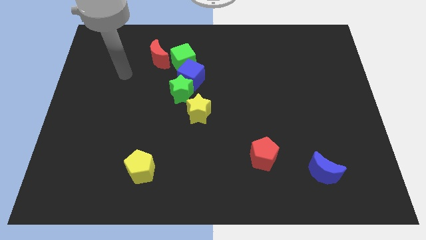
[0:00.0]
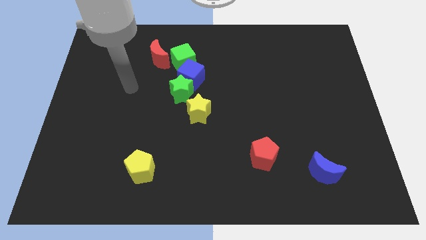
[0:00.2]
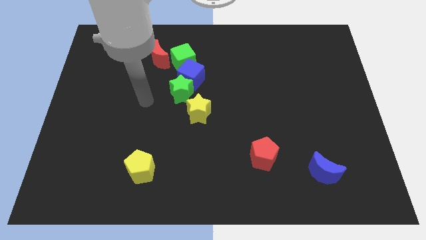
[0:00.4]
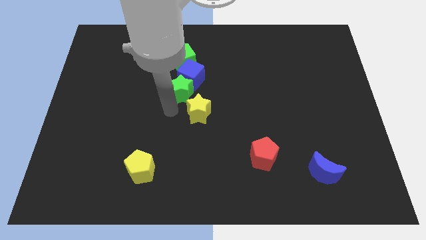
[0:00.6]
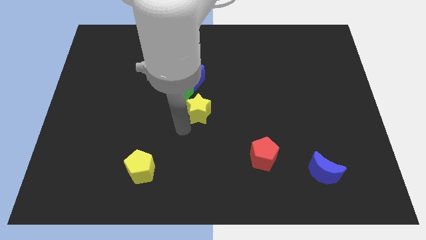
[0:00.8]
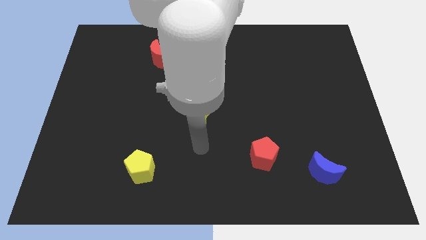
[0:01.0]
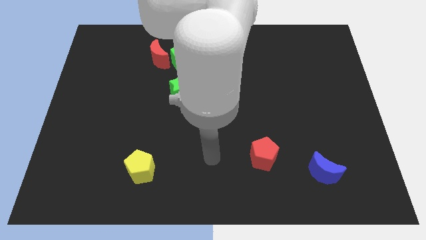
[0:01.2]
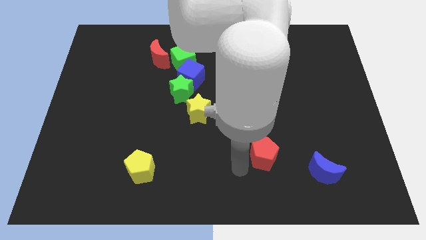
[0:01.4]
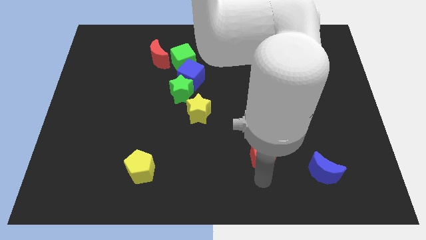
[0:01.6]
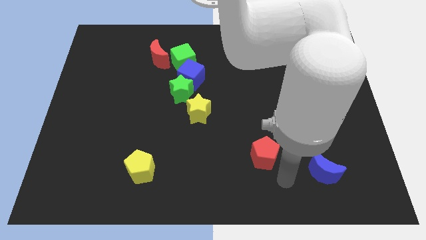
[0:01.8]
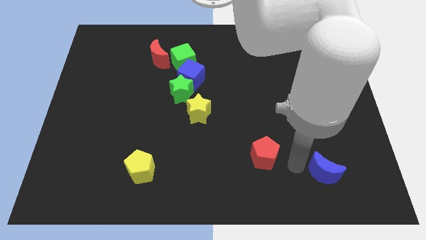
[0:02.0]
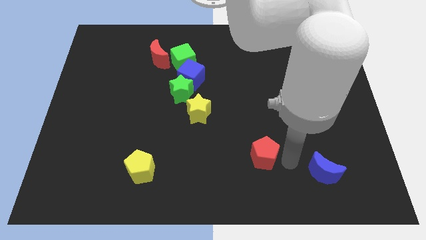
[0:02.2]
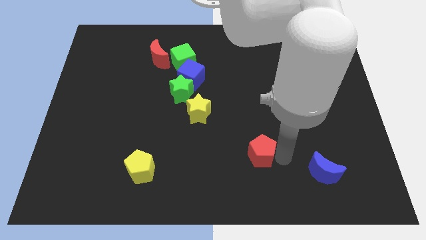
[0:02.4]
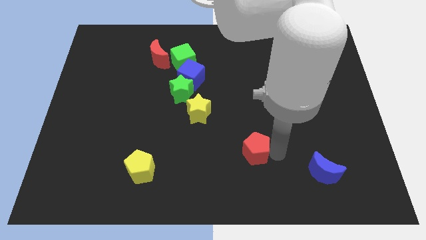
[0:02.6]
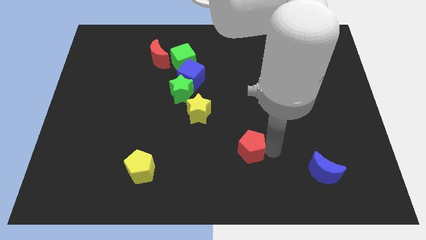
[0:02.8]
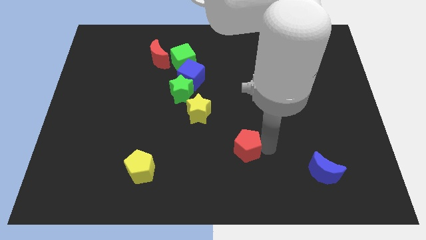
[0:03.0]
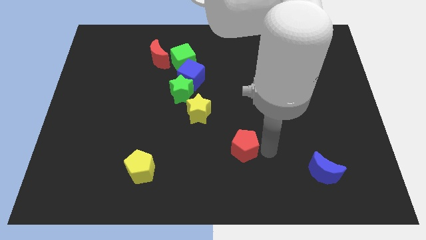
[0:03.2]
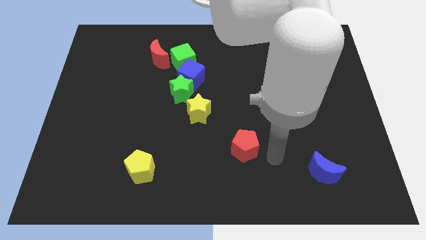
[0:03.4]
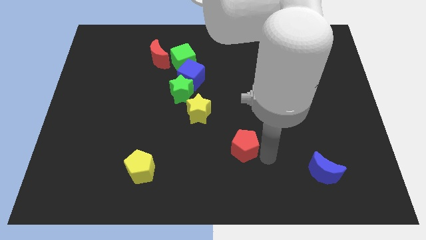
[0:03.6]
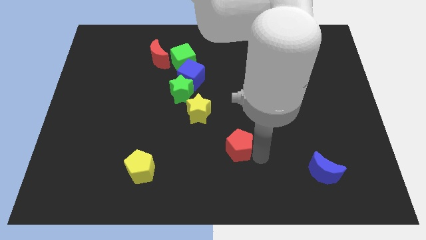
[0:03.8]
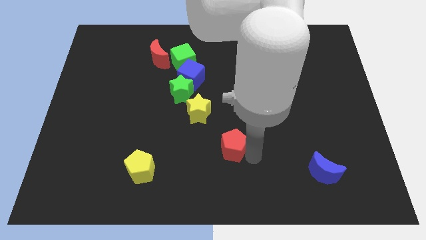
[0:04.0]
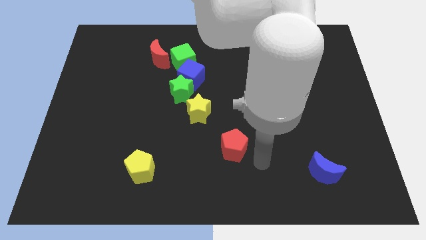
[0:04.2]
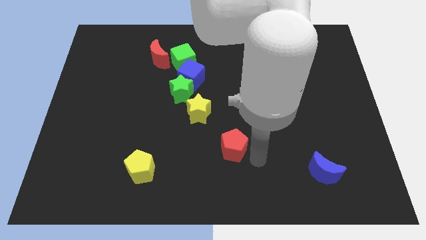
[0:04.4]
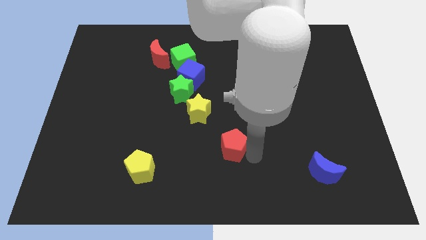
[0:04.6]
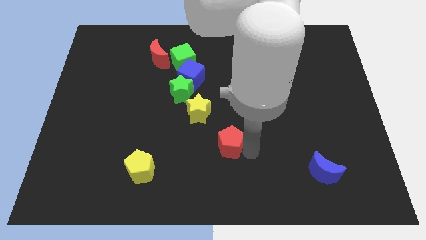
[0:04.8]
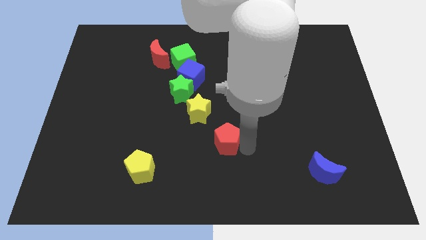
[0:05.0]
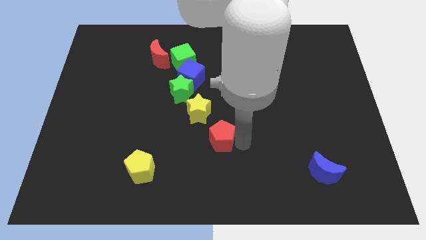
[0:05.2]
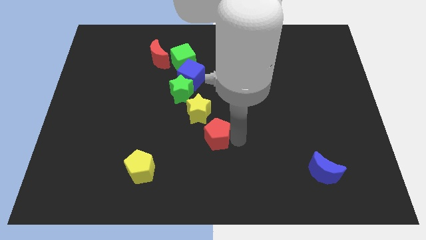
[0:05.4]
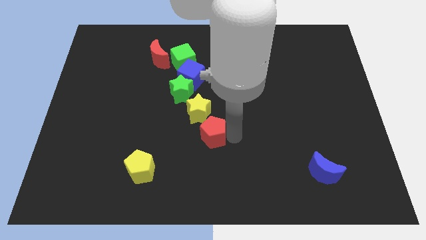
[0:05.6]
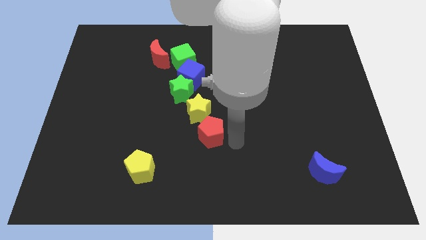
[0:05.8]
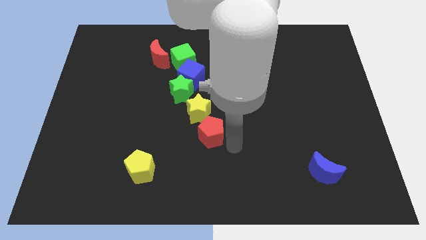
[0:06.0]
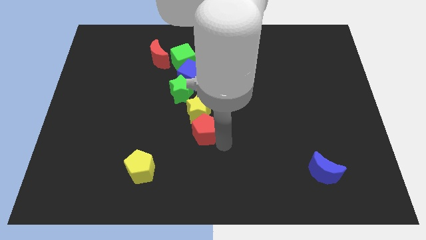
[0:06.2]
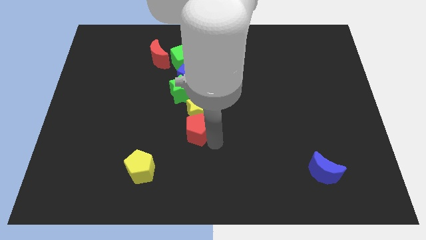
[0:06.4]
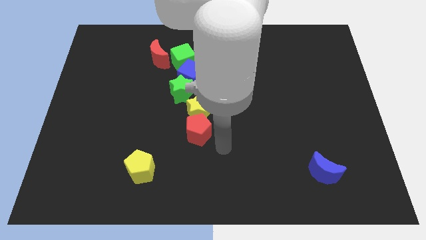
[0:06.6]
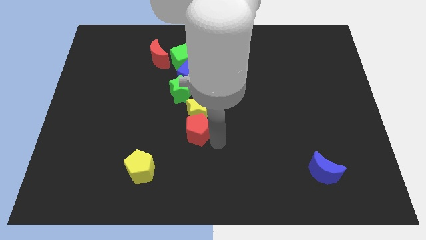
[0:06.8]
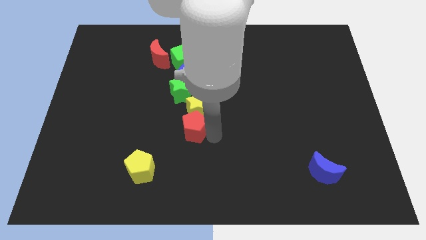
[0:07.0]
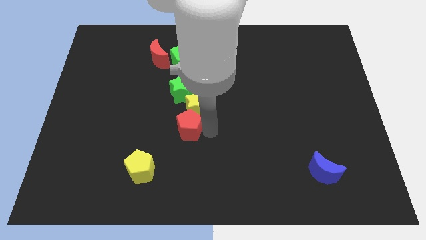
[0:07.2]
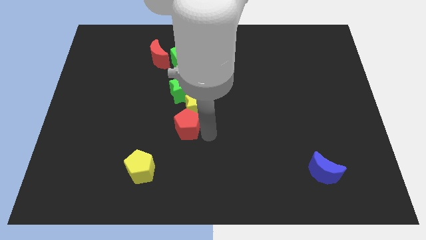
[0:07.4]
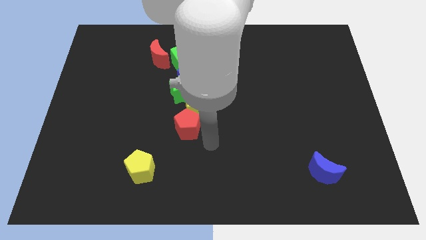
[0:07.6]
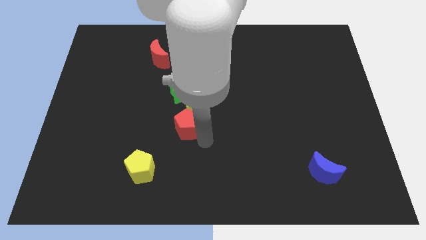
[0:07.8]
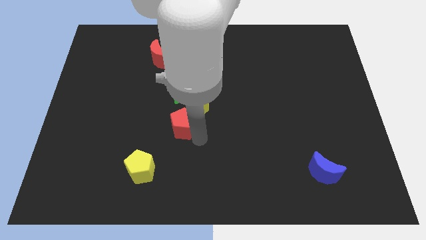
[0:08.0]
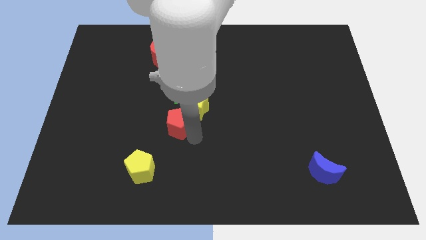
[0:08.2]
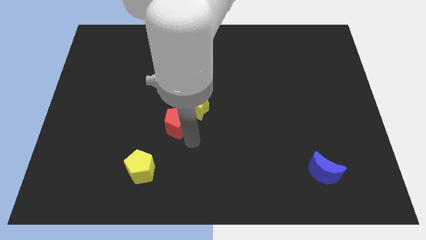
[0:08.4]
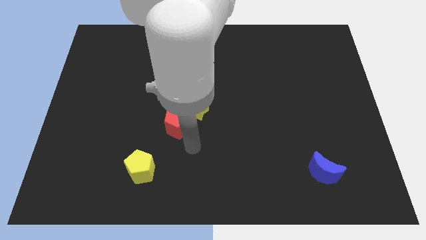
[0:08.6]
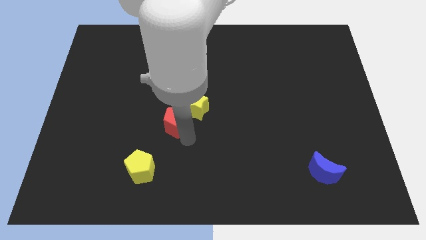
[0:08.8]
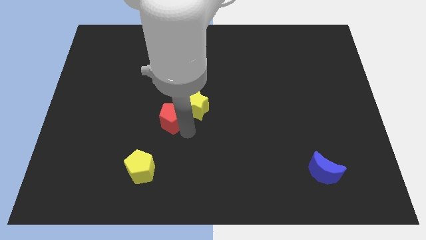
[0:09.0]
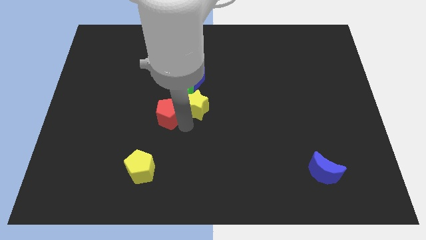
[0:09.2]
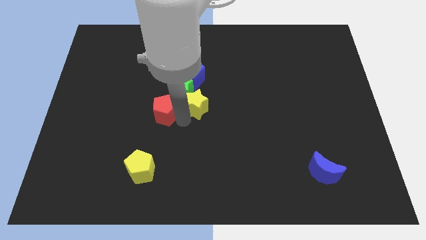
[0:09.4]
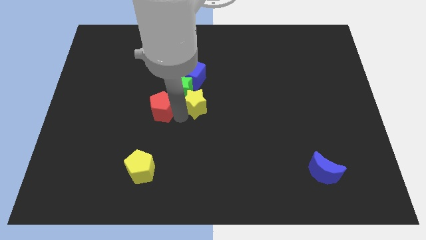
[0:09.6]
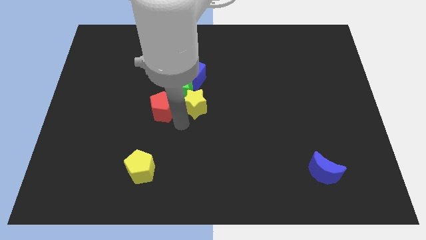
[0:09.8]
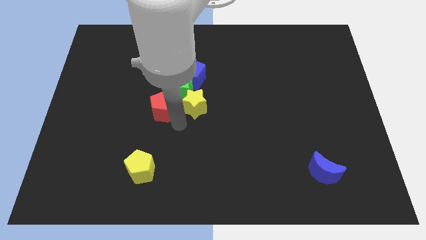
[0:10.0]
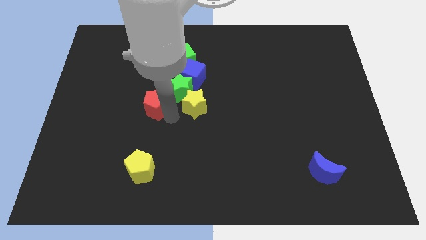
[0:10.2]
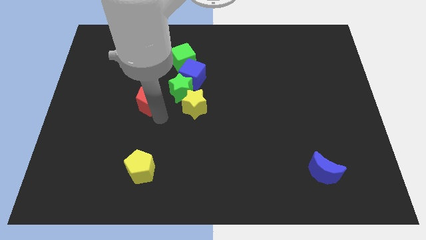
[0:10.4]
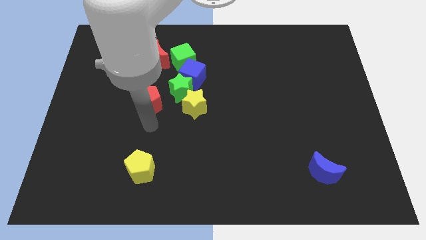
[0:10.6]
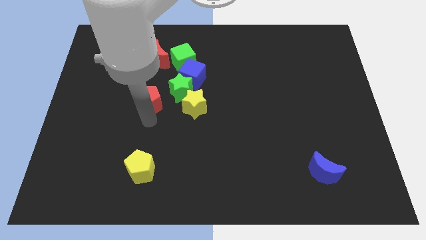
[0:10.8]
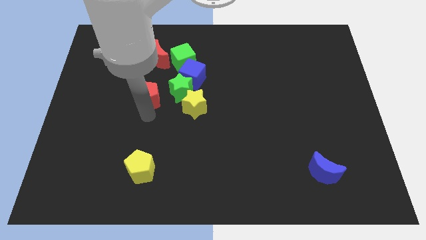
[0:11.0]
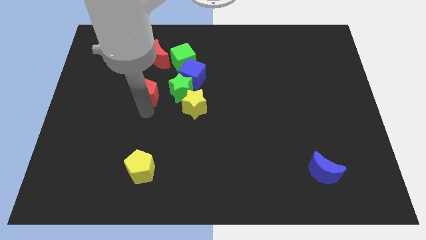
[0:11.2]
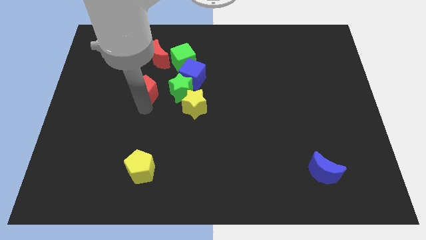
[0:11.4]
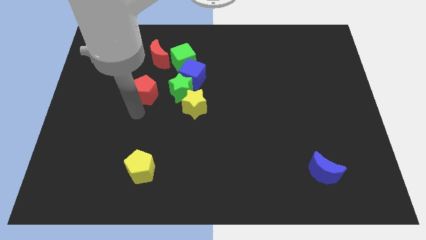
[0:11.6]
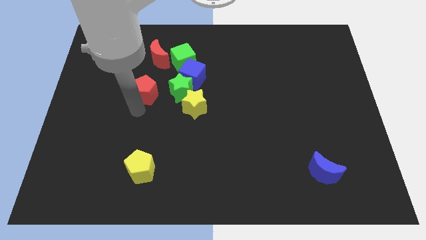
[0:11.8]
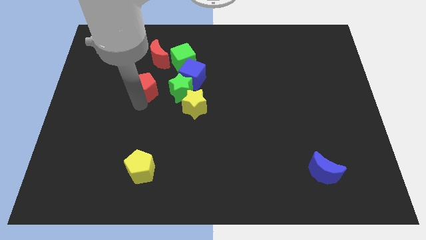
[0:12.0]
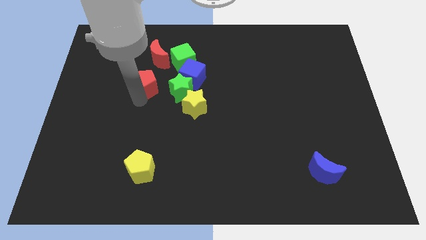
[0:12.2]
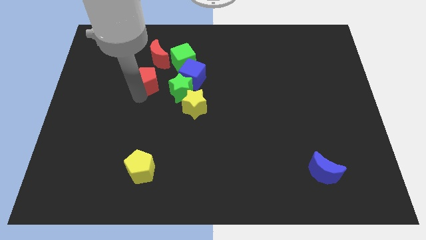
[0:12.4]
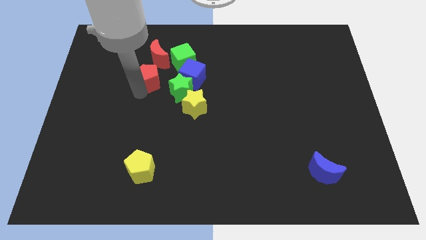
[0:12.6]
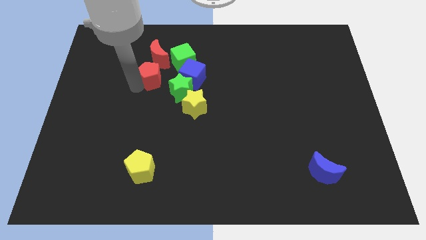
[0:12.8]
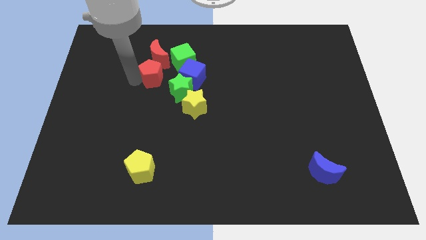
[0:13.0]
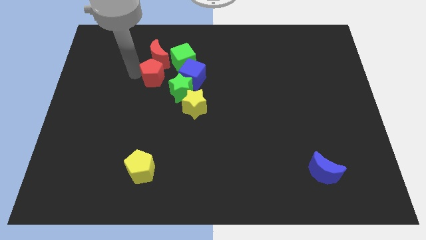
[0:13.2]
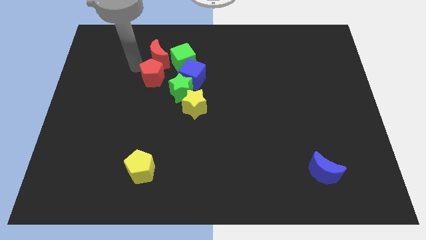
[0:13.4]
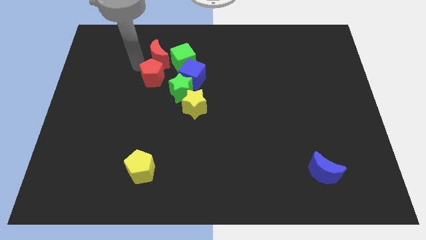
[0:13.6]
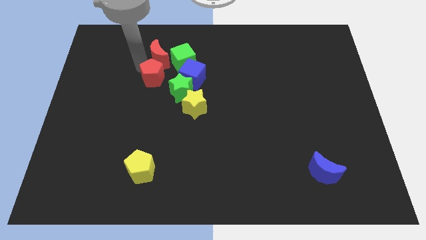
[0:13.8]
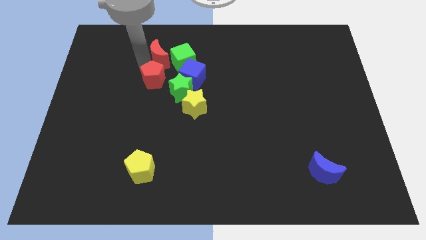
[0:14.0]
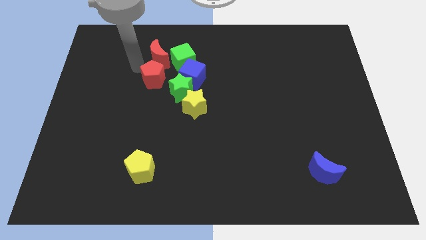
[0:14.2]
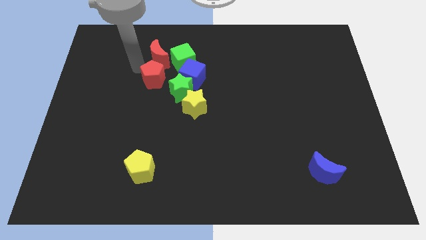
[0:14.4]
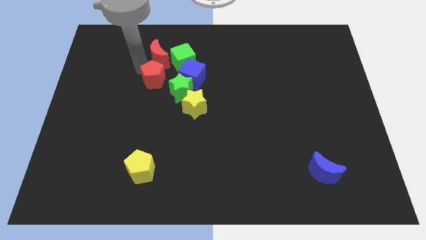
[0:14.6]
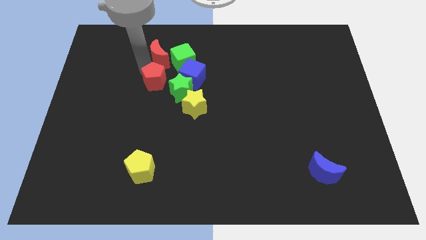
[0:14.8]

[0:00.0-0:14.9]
slide the red pentagon diagonally up and to the left of the yellow star
